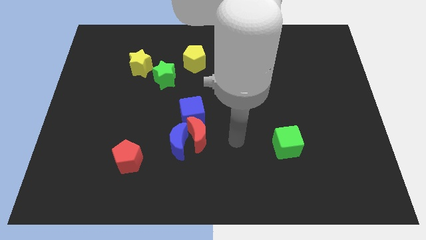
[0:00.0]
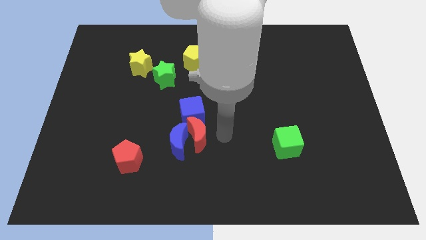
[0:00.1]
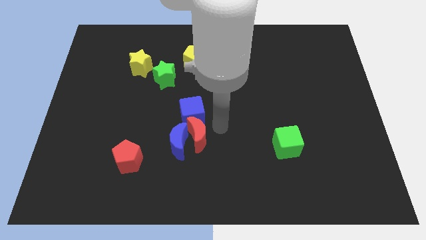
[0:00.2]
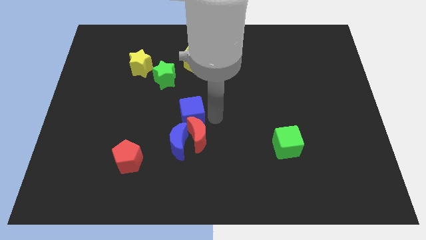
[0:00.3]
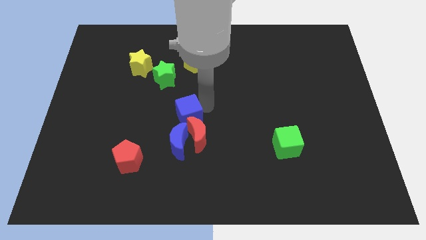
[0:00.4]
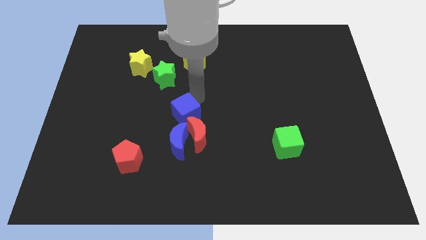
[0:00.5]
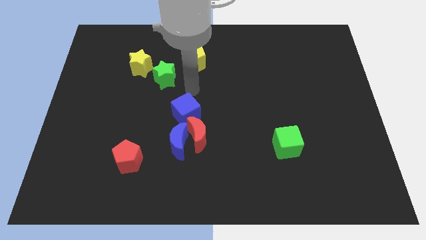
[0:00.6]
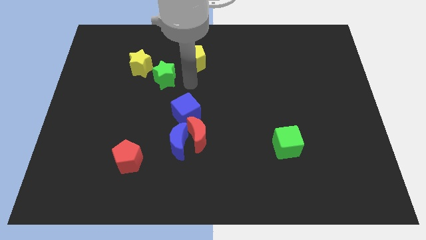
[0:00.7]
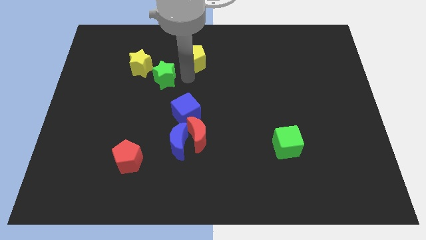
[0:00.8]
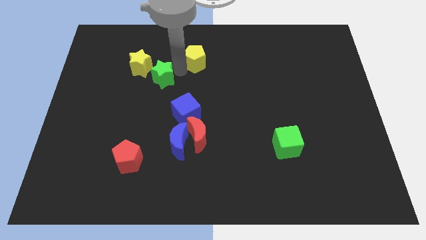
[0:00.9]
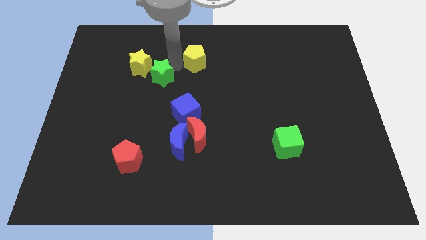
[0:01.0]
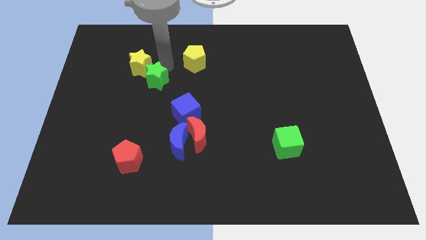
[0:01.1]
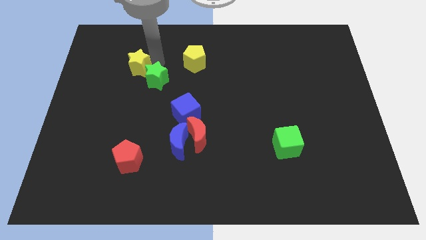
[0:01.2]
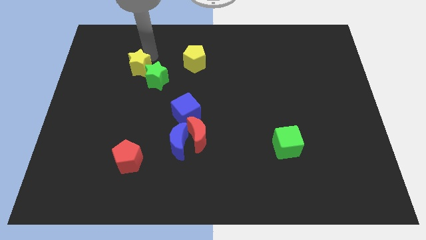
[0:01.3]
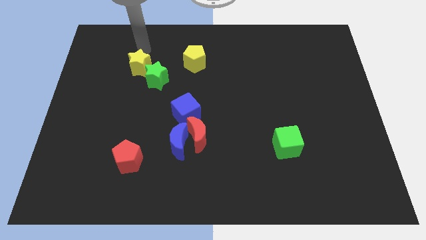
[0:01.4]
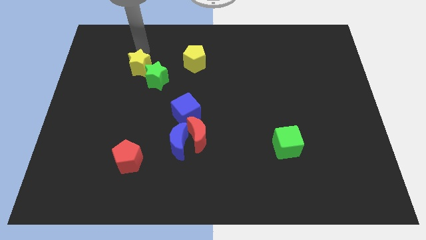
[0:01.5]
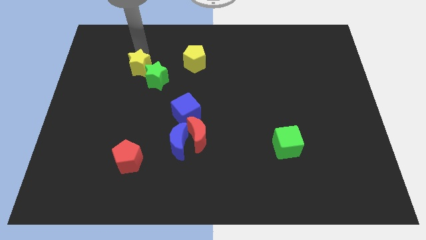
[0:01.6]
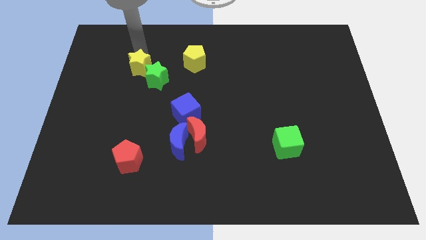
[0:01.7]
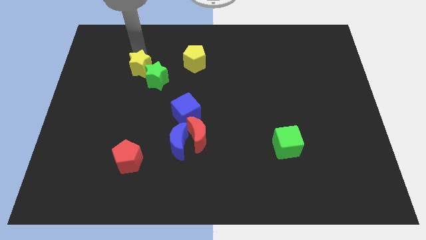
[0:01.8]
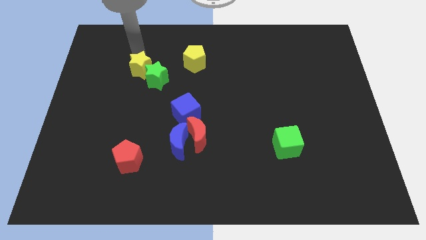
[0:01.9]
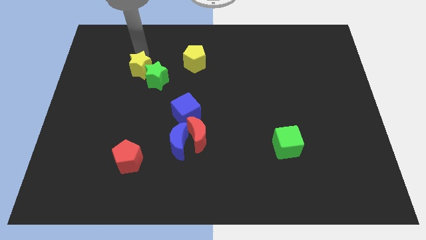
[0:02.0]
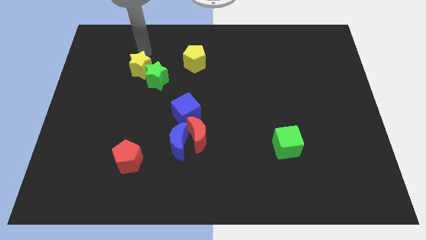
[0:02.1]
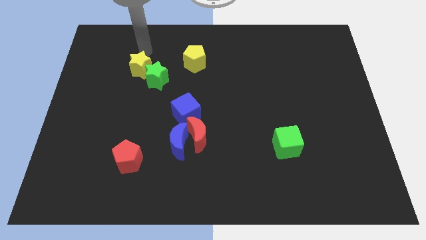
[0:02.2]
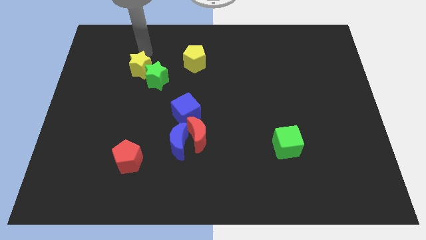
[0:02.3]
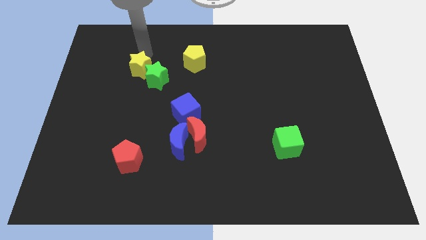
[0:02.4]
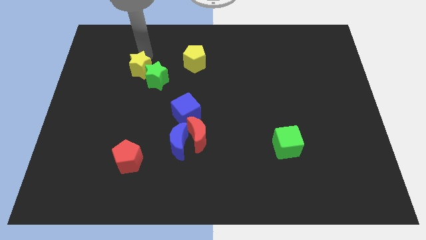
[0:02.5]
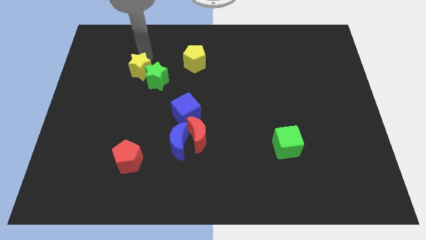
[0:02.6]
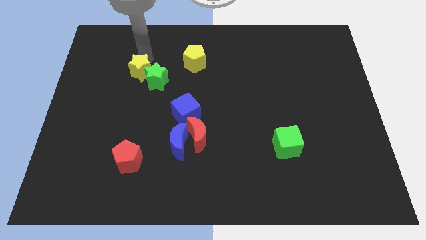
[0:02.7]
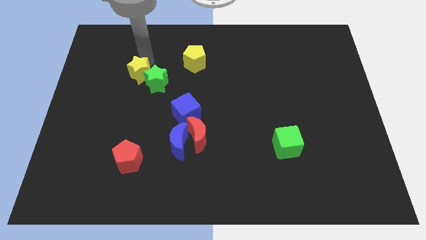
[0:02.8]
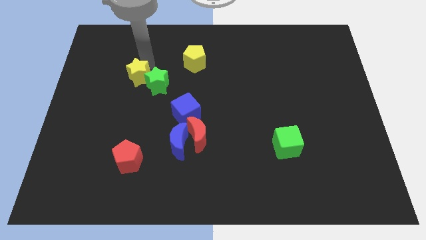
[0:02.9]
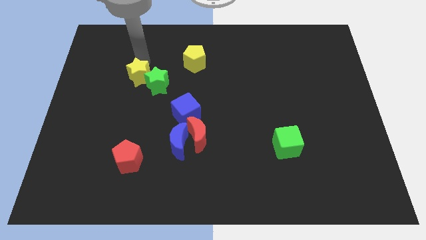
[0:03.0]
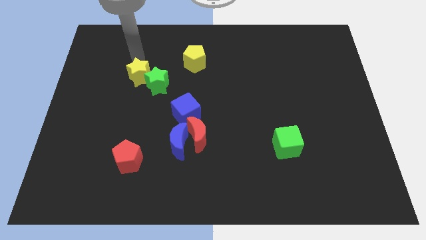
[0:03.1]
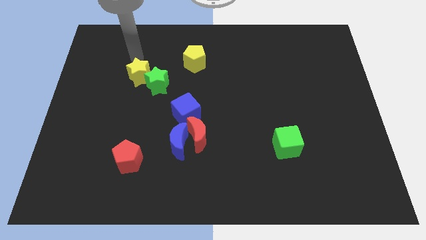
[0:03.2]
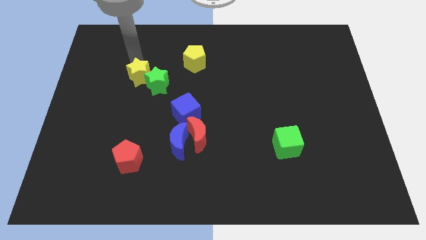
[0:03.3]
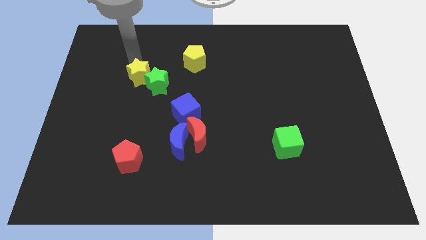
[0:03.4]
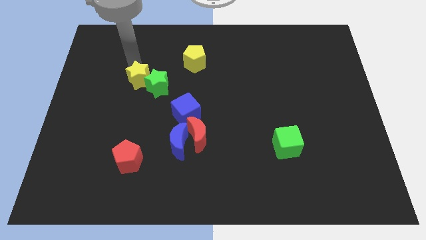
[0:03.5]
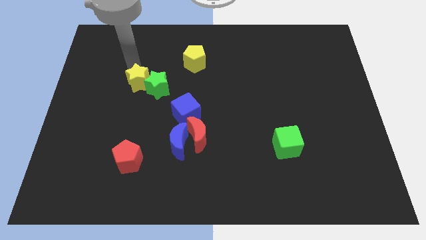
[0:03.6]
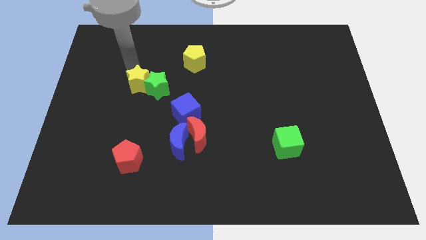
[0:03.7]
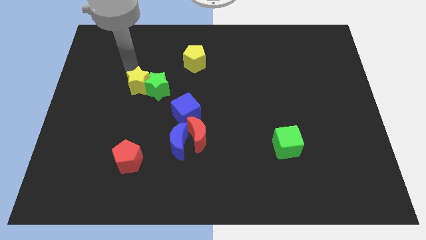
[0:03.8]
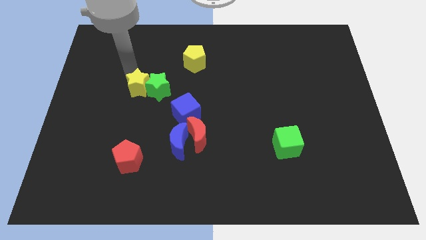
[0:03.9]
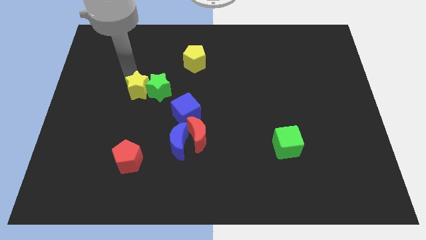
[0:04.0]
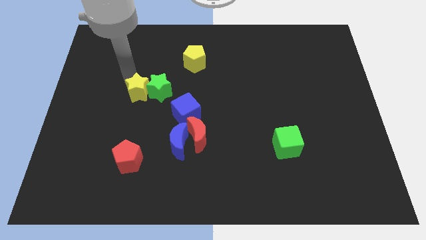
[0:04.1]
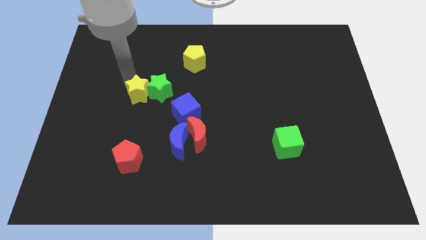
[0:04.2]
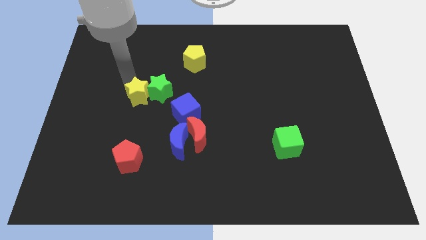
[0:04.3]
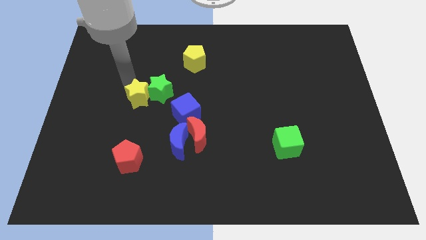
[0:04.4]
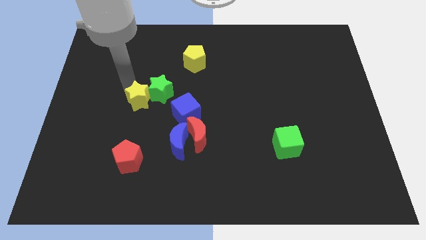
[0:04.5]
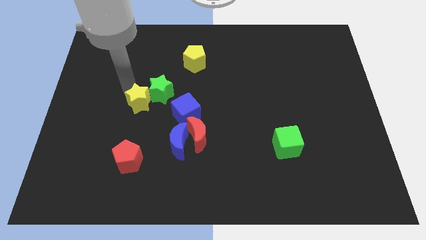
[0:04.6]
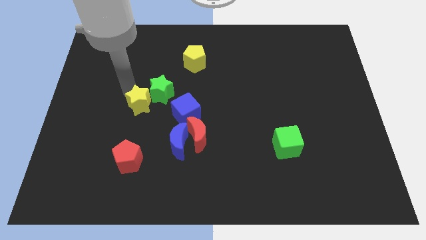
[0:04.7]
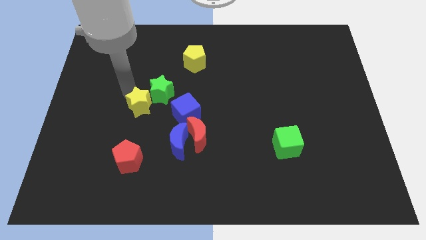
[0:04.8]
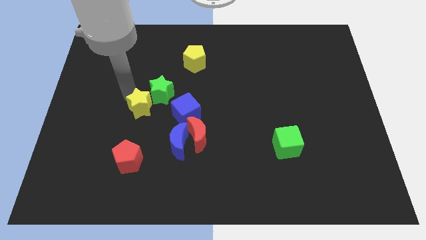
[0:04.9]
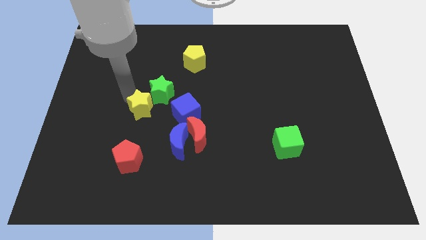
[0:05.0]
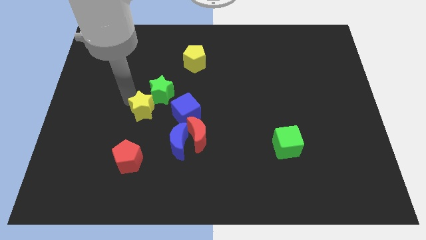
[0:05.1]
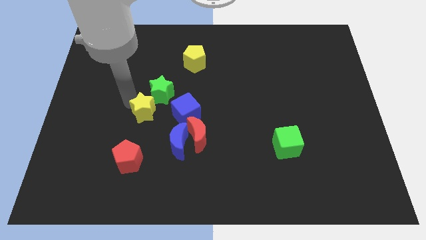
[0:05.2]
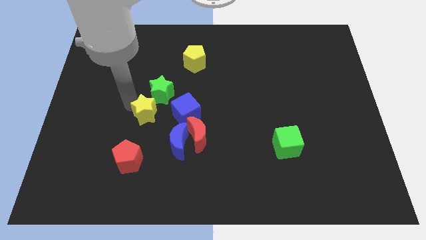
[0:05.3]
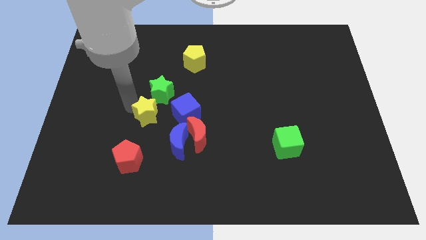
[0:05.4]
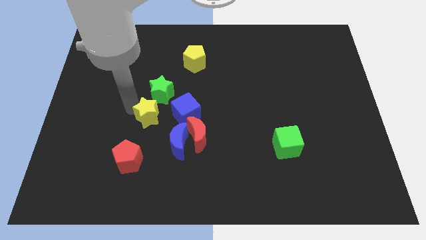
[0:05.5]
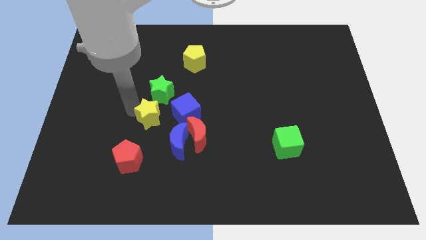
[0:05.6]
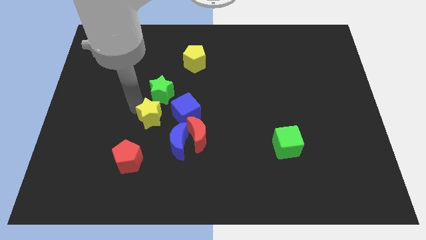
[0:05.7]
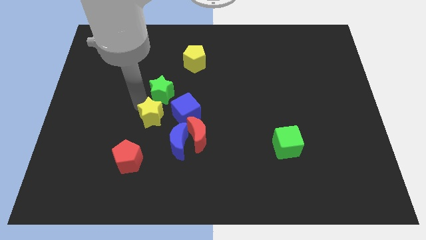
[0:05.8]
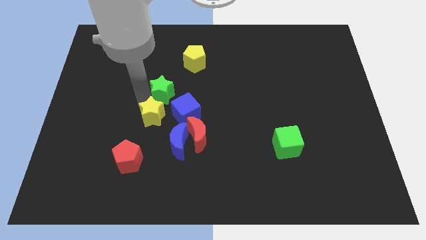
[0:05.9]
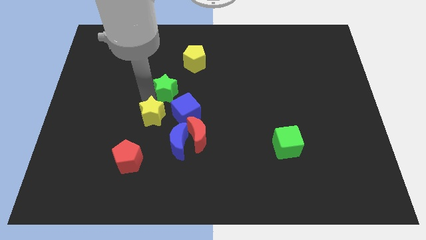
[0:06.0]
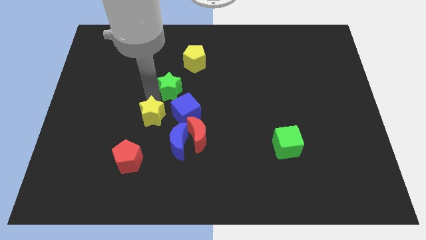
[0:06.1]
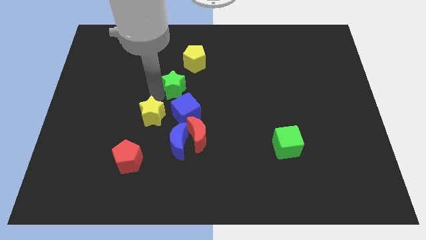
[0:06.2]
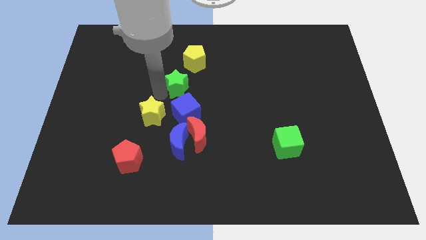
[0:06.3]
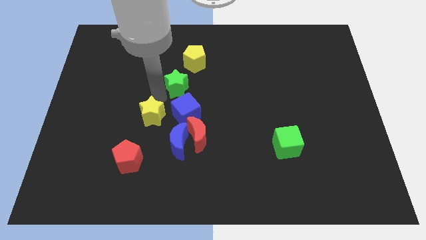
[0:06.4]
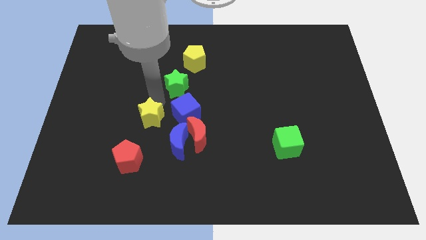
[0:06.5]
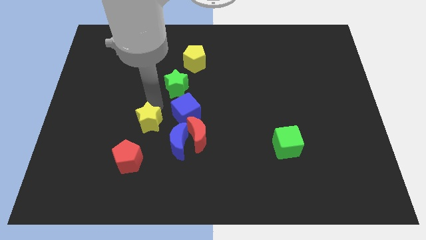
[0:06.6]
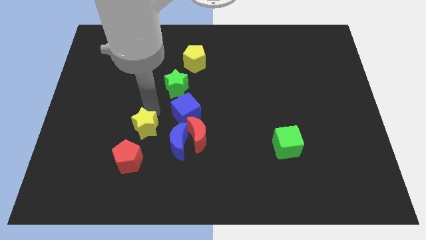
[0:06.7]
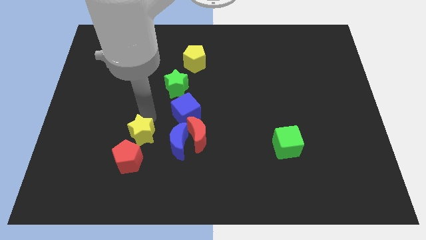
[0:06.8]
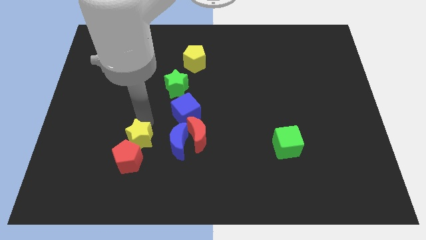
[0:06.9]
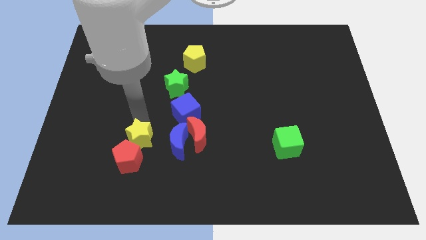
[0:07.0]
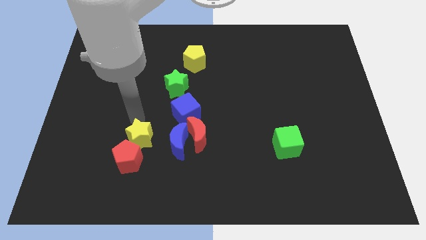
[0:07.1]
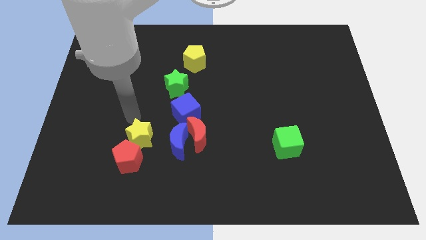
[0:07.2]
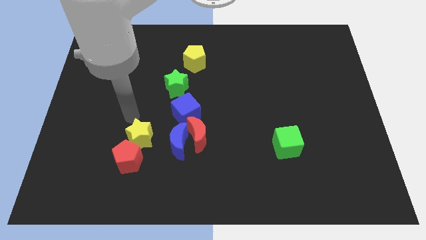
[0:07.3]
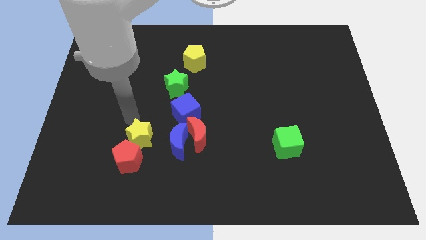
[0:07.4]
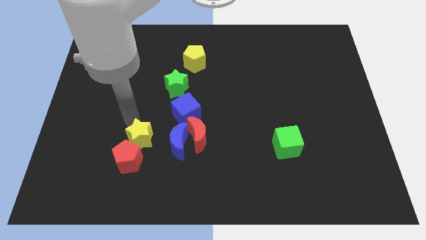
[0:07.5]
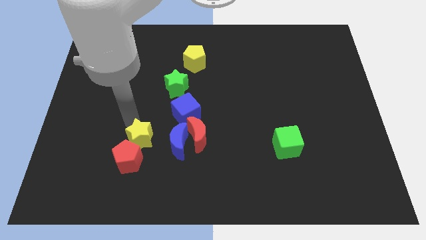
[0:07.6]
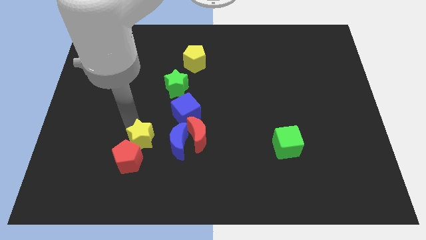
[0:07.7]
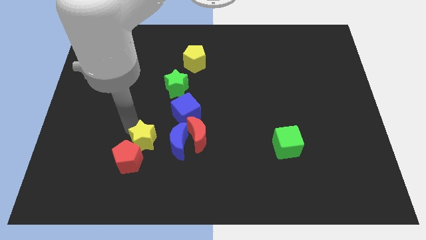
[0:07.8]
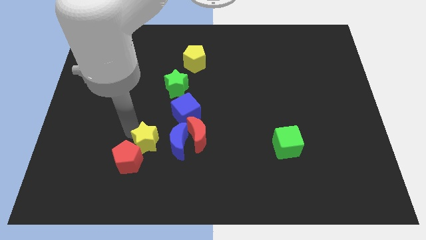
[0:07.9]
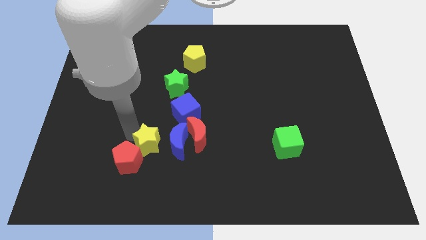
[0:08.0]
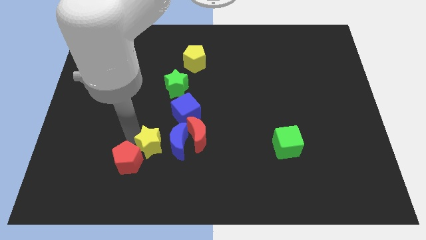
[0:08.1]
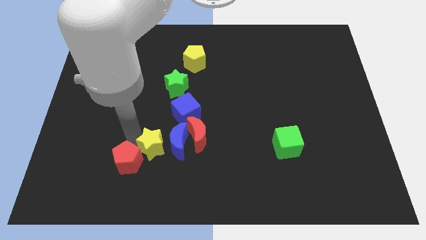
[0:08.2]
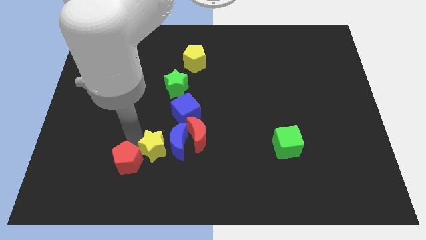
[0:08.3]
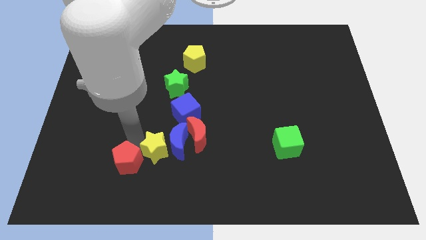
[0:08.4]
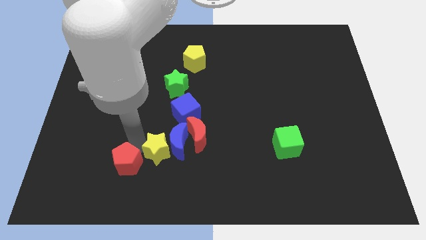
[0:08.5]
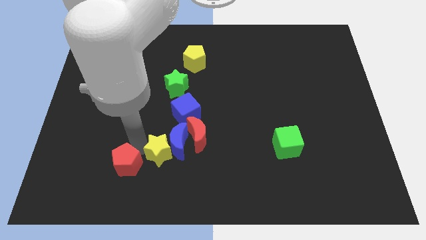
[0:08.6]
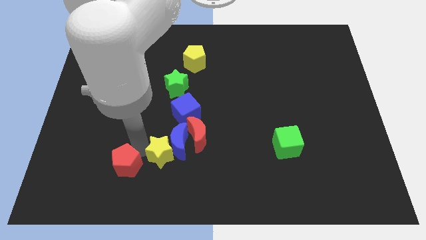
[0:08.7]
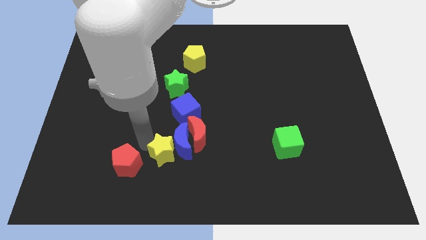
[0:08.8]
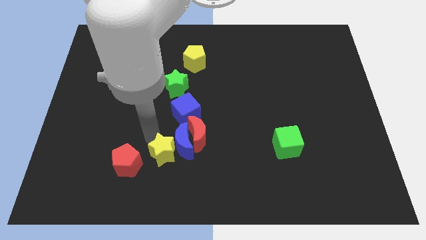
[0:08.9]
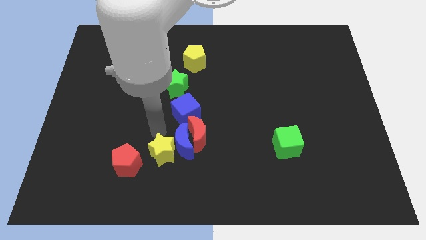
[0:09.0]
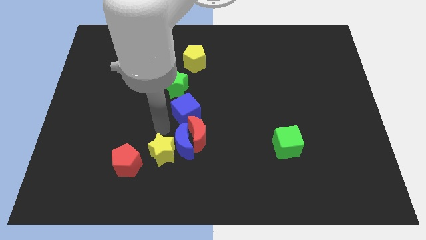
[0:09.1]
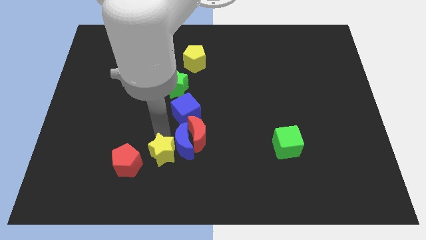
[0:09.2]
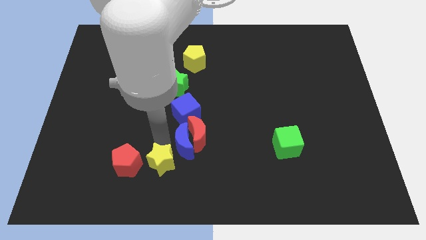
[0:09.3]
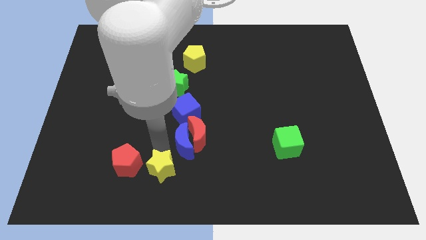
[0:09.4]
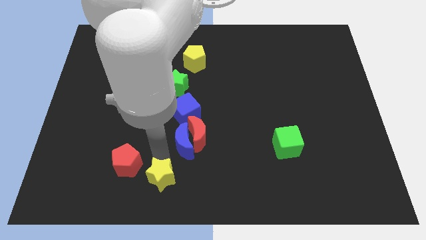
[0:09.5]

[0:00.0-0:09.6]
slide the yellow star to the bottom
